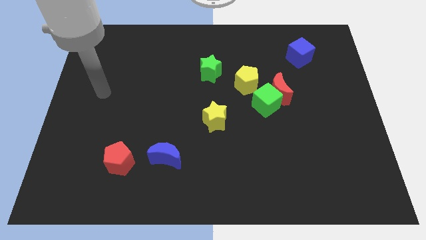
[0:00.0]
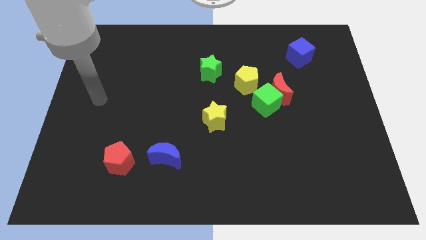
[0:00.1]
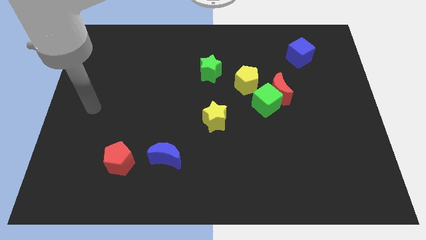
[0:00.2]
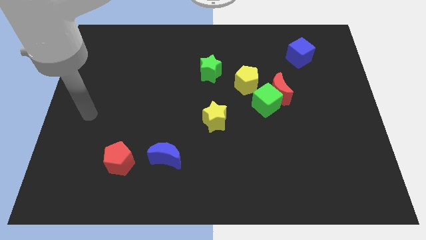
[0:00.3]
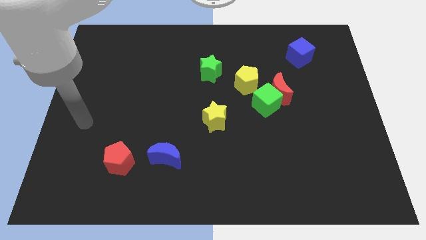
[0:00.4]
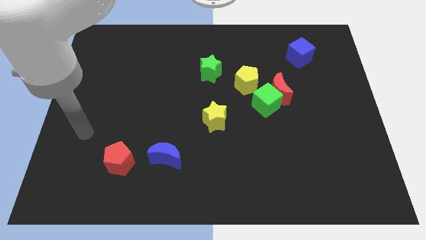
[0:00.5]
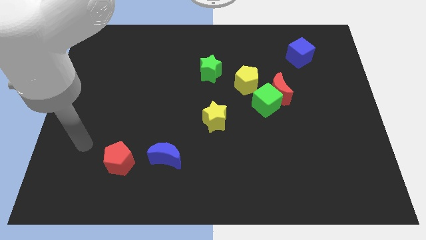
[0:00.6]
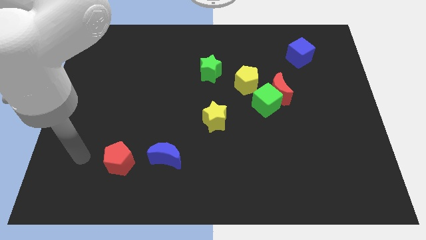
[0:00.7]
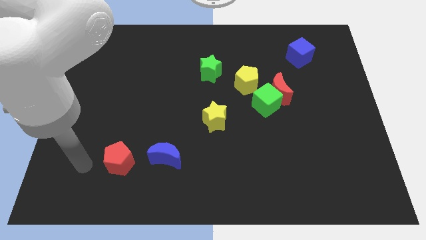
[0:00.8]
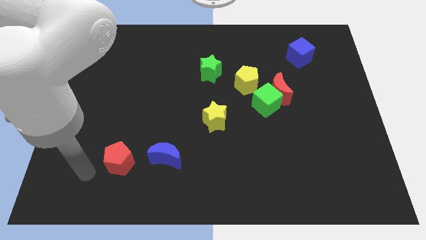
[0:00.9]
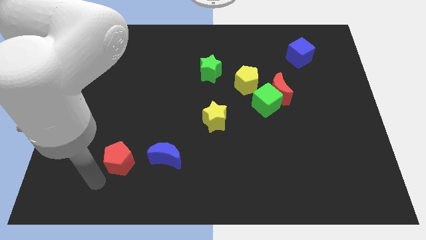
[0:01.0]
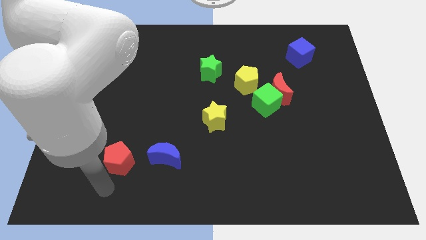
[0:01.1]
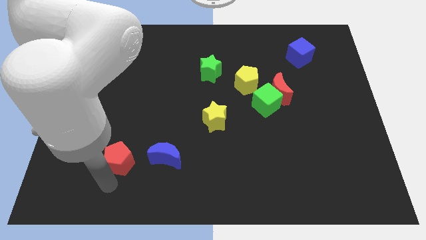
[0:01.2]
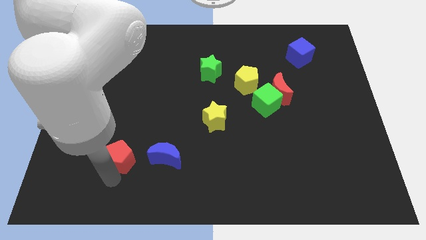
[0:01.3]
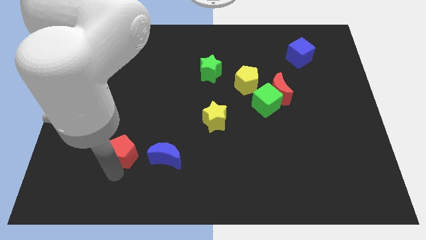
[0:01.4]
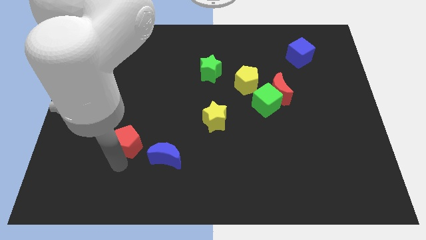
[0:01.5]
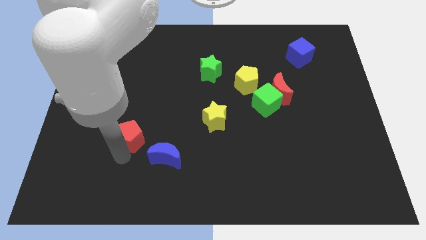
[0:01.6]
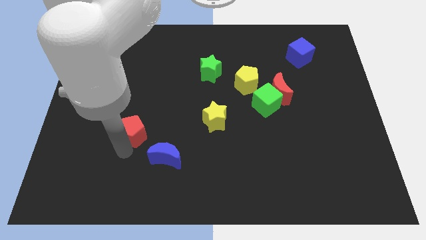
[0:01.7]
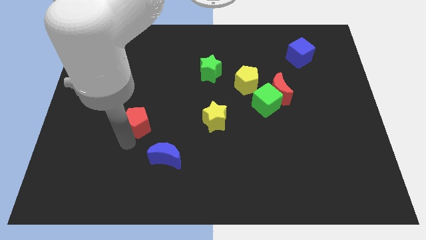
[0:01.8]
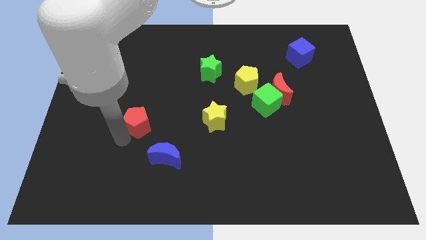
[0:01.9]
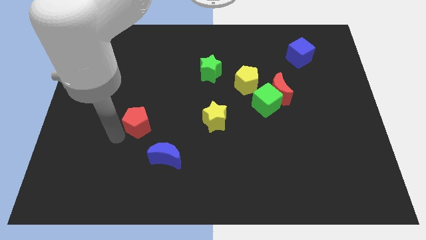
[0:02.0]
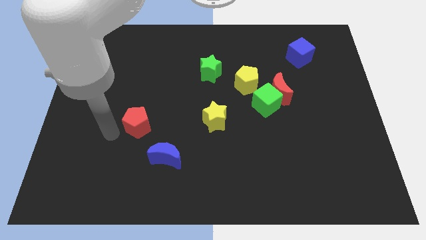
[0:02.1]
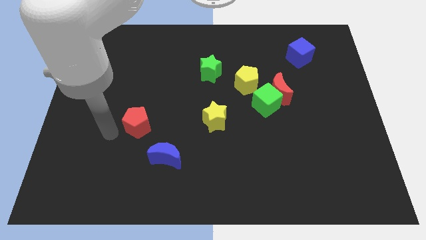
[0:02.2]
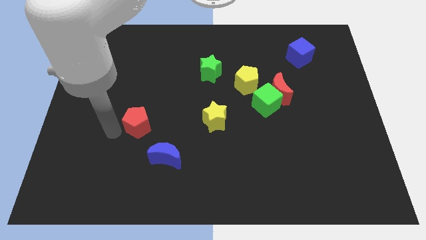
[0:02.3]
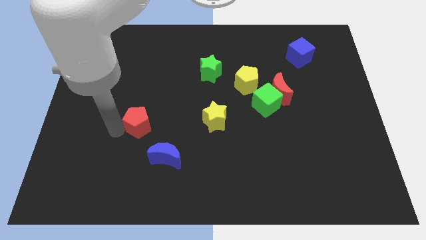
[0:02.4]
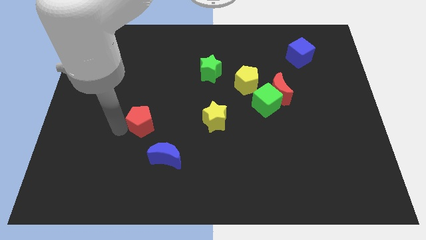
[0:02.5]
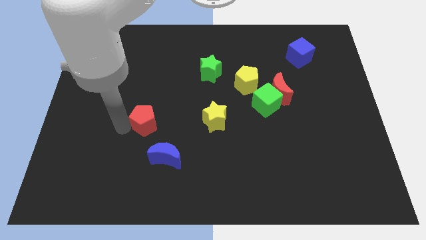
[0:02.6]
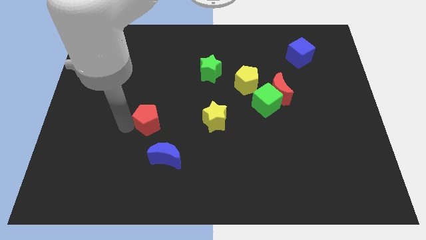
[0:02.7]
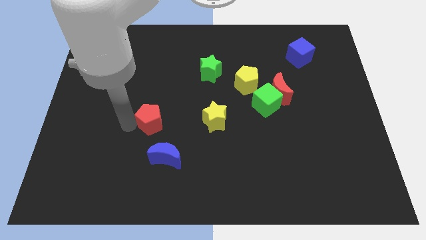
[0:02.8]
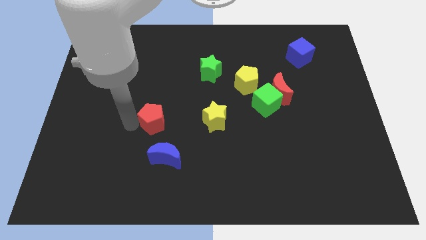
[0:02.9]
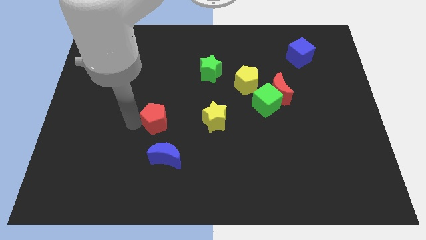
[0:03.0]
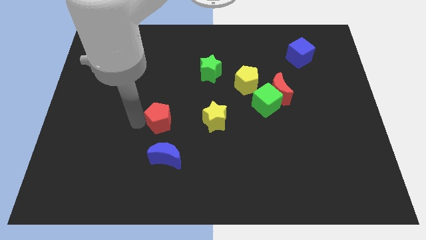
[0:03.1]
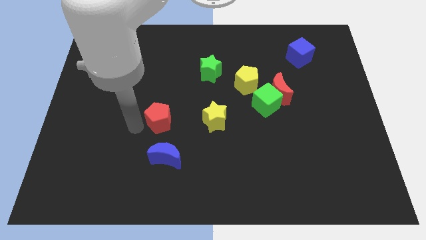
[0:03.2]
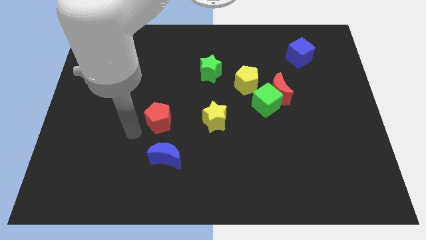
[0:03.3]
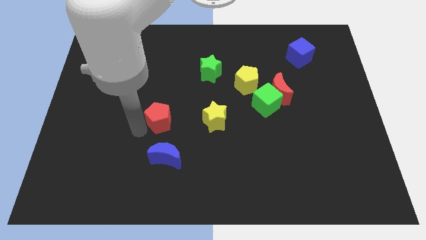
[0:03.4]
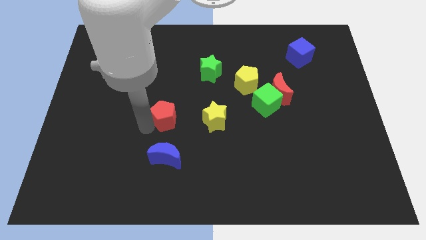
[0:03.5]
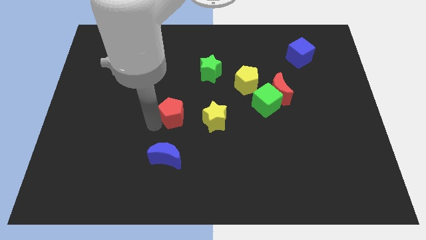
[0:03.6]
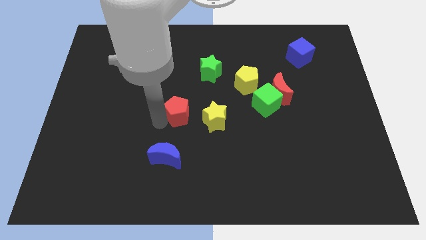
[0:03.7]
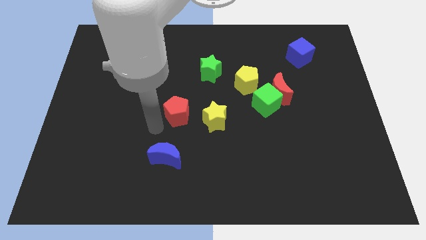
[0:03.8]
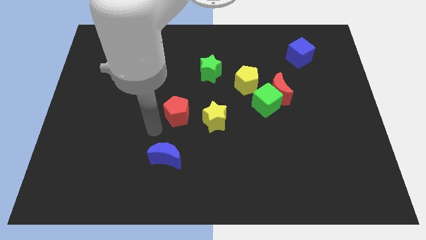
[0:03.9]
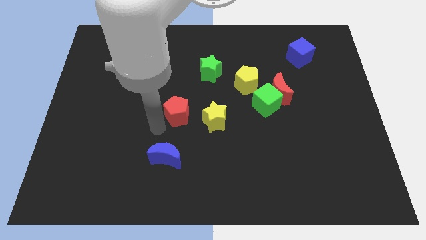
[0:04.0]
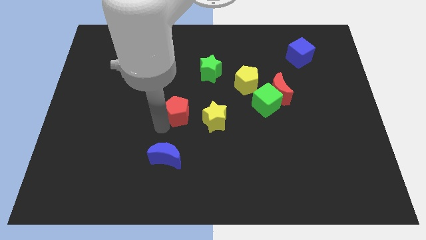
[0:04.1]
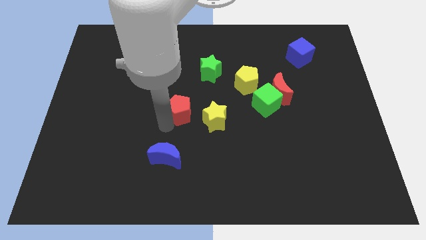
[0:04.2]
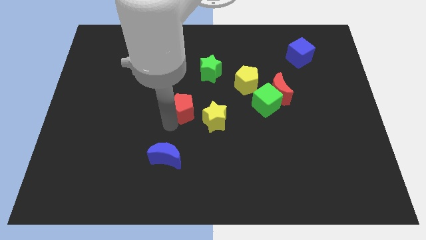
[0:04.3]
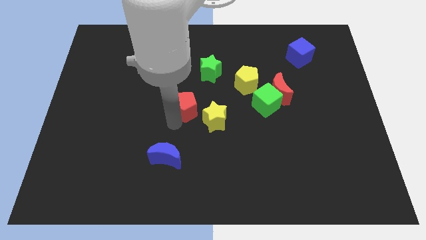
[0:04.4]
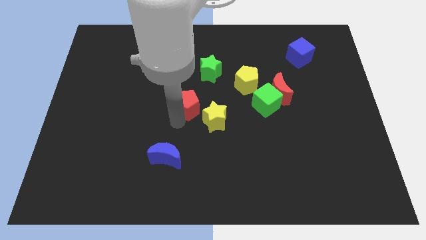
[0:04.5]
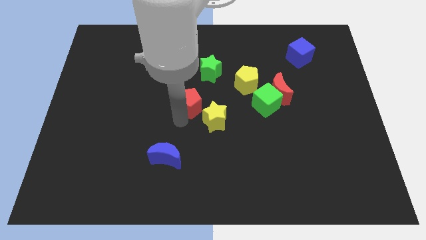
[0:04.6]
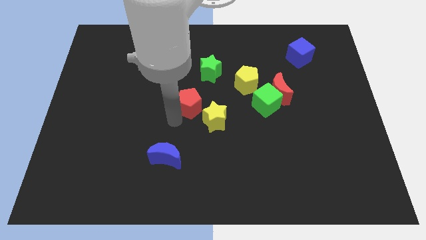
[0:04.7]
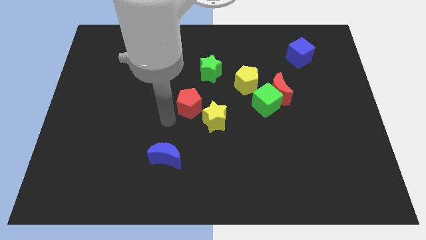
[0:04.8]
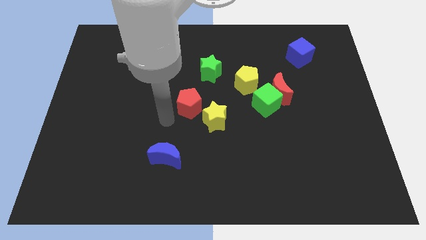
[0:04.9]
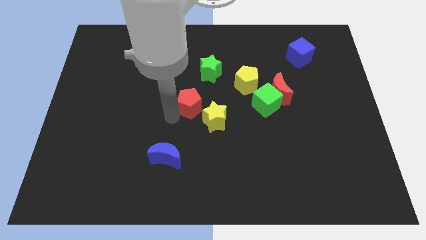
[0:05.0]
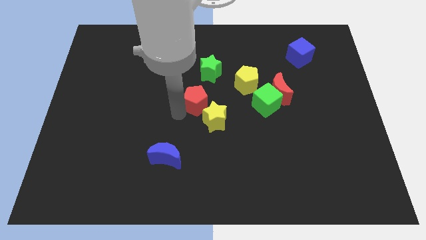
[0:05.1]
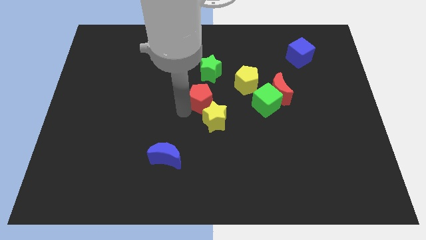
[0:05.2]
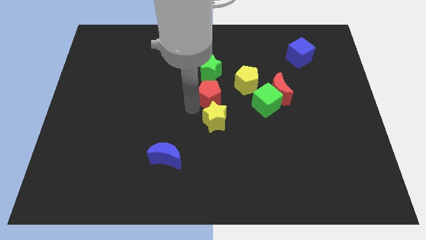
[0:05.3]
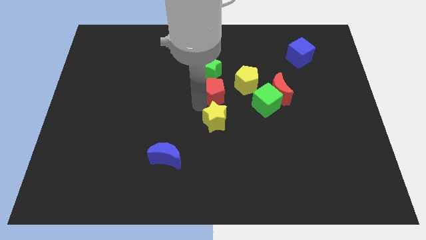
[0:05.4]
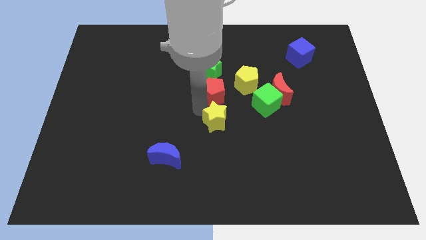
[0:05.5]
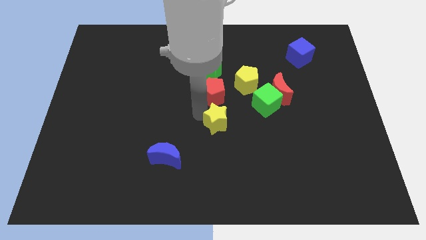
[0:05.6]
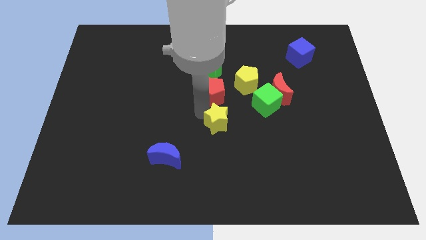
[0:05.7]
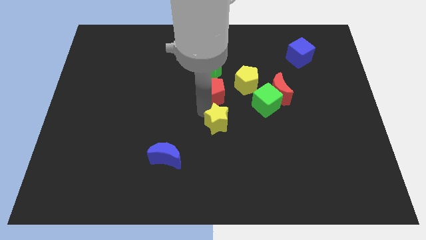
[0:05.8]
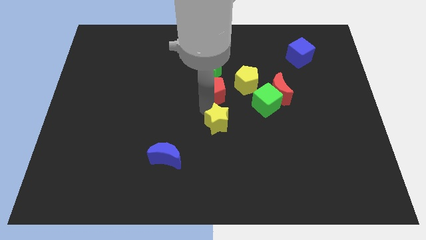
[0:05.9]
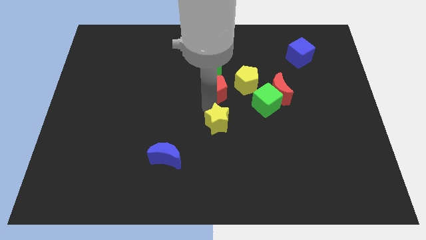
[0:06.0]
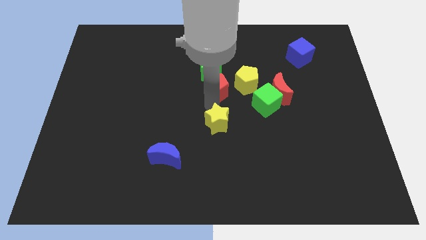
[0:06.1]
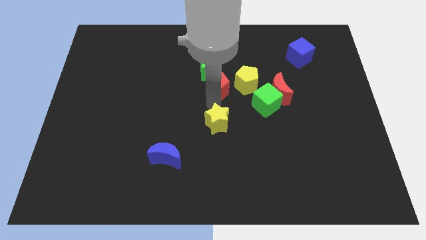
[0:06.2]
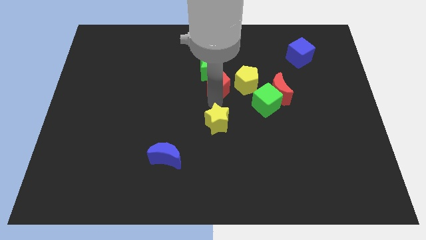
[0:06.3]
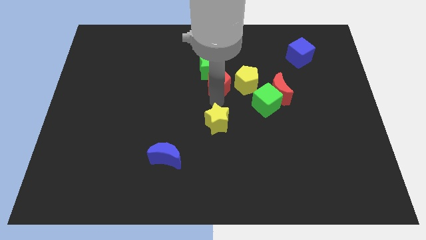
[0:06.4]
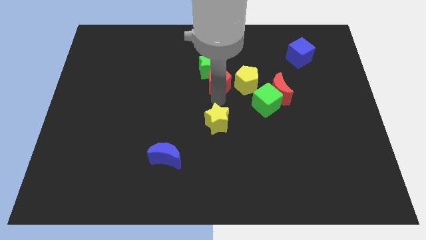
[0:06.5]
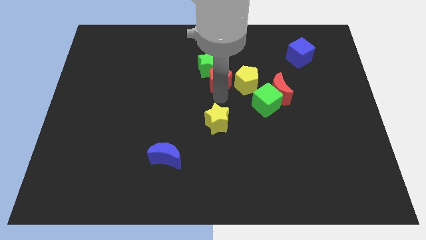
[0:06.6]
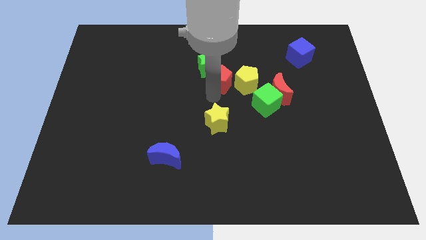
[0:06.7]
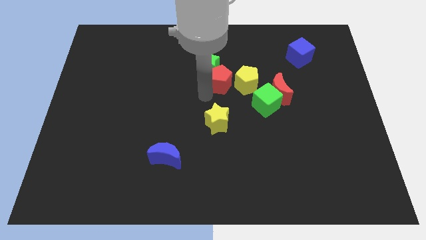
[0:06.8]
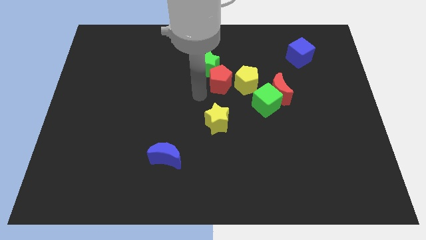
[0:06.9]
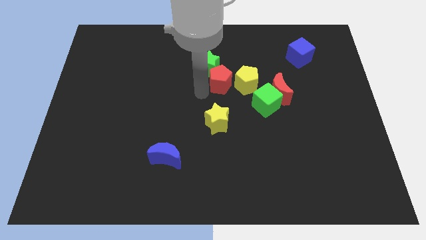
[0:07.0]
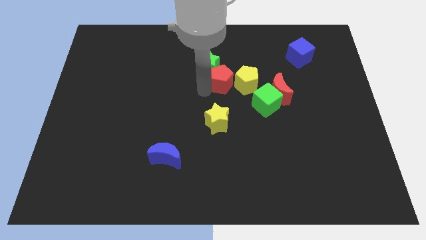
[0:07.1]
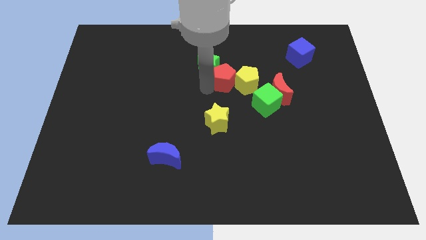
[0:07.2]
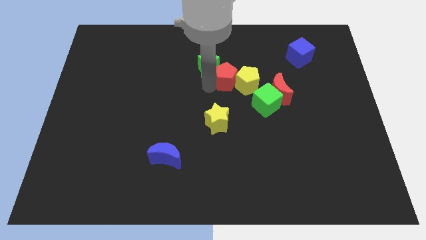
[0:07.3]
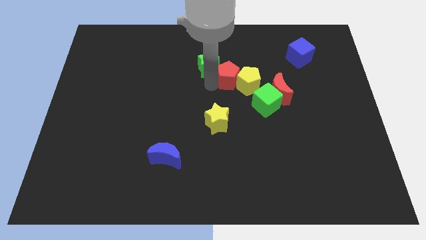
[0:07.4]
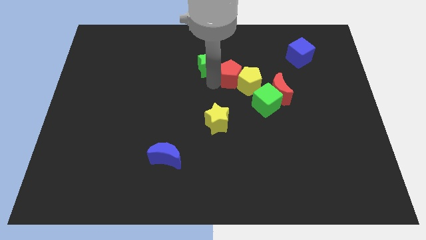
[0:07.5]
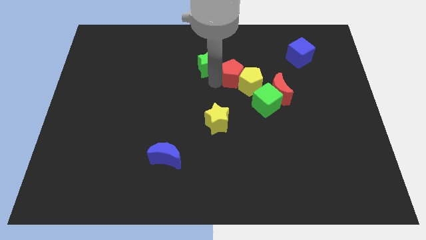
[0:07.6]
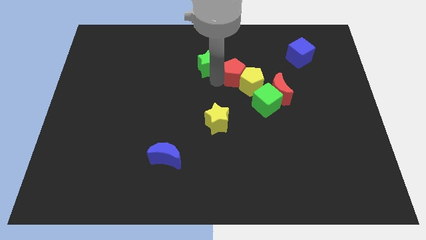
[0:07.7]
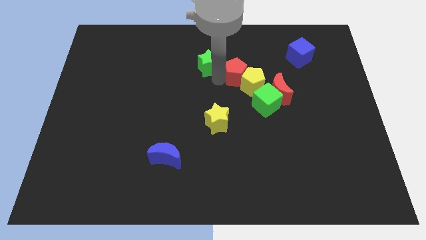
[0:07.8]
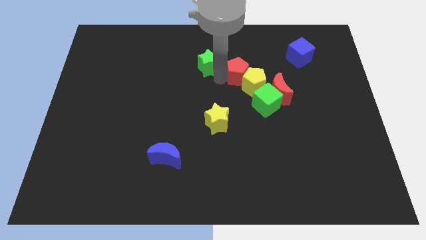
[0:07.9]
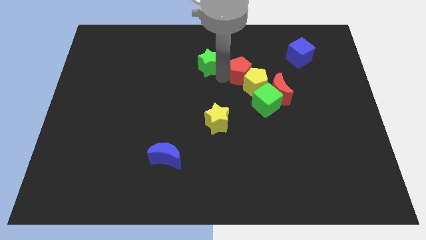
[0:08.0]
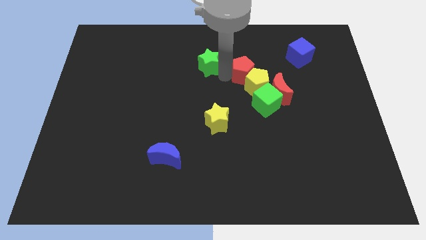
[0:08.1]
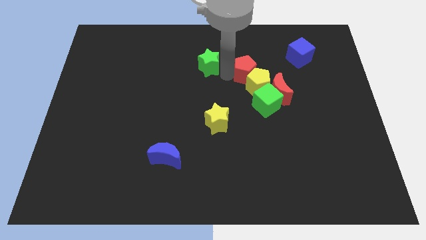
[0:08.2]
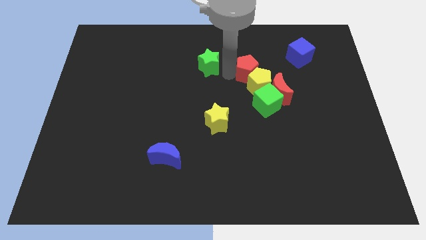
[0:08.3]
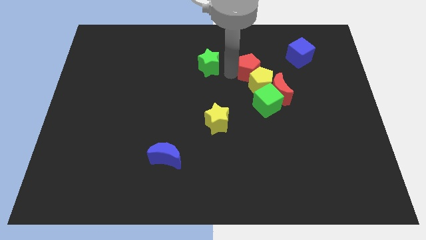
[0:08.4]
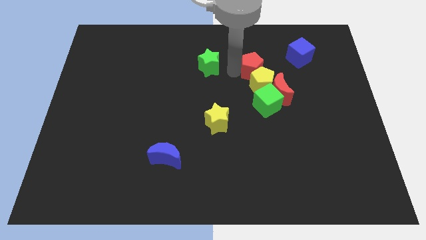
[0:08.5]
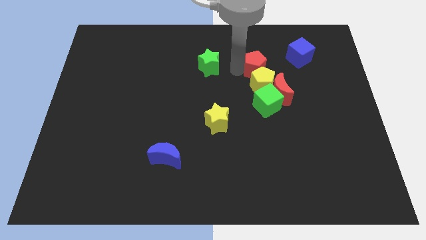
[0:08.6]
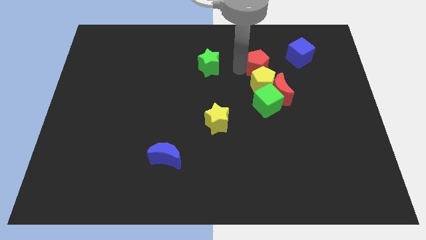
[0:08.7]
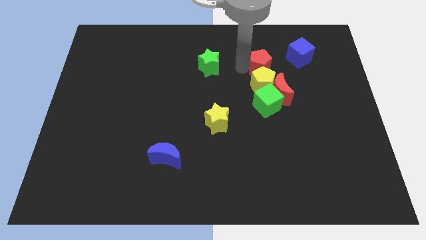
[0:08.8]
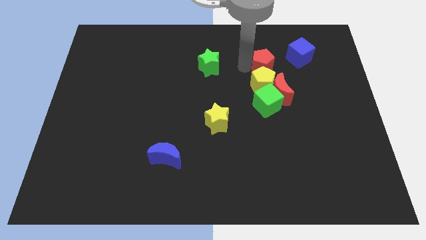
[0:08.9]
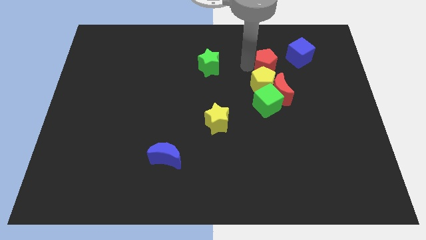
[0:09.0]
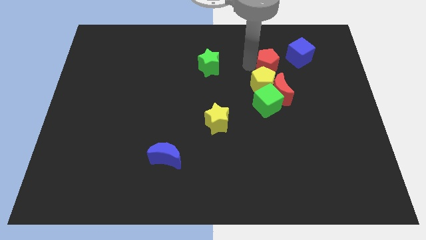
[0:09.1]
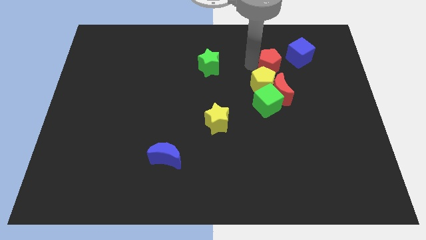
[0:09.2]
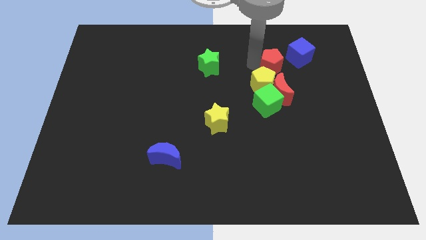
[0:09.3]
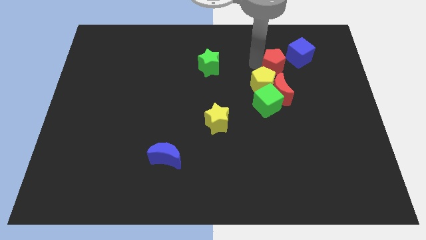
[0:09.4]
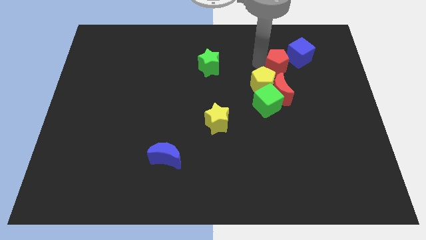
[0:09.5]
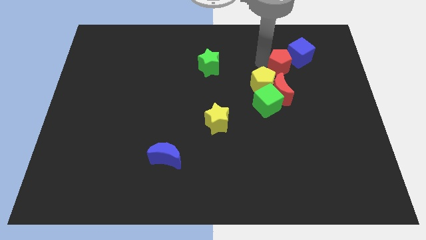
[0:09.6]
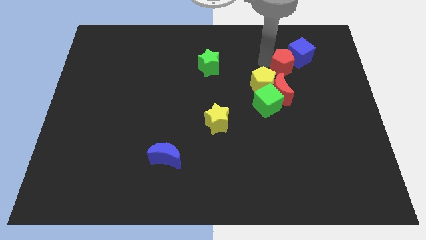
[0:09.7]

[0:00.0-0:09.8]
slide the red pentagon next to the blue cube
